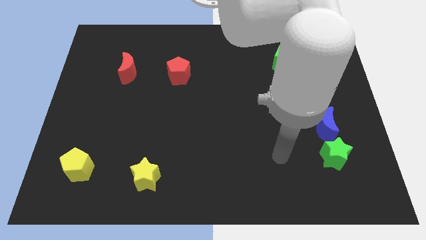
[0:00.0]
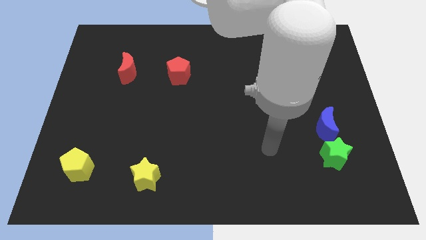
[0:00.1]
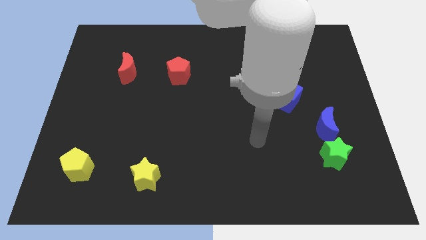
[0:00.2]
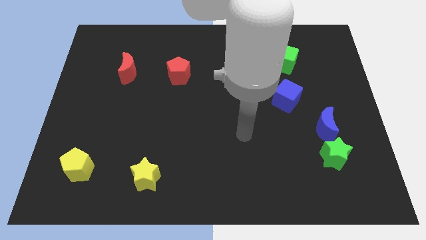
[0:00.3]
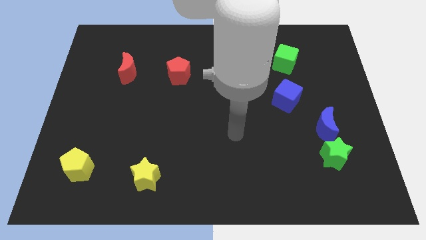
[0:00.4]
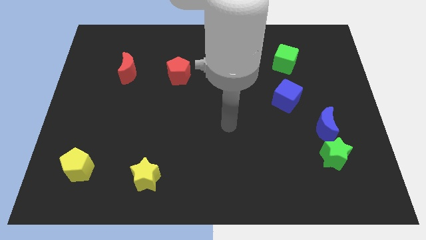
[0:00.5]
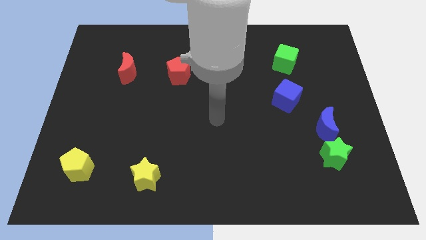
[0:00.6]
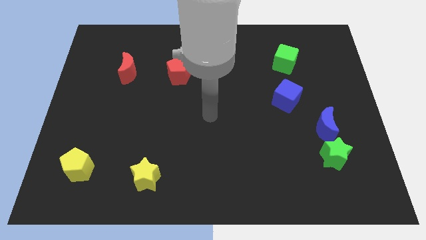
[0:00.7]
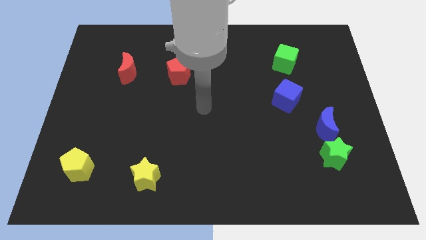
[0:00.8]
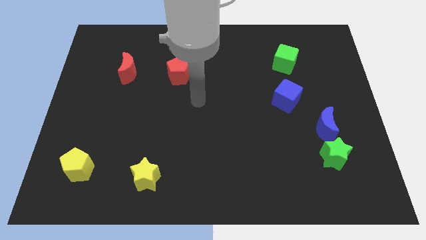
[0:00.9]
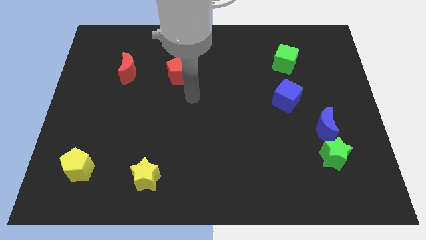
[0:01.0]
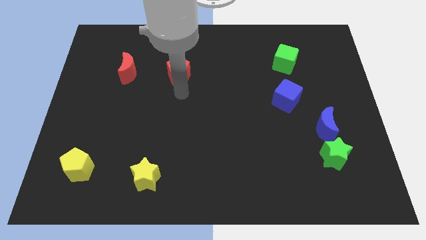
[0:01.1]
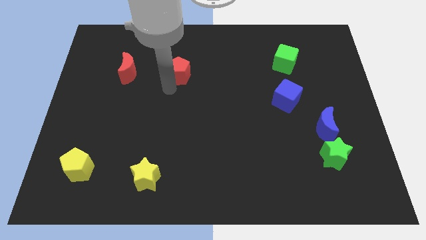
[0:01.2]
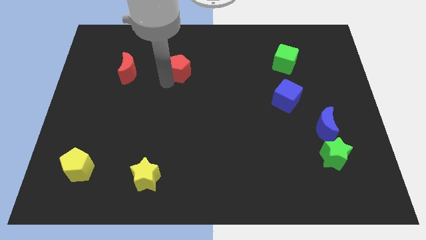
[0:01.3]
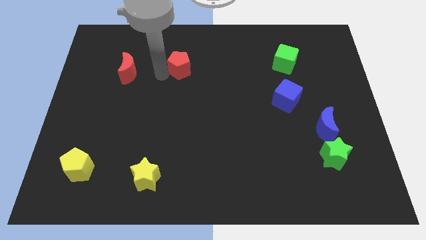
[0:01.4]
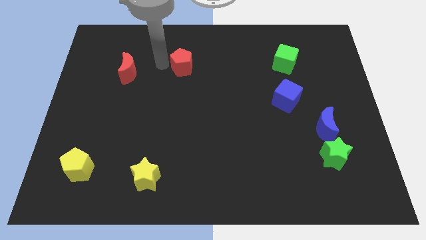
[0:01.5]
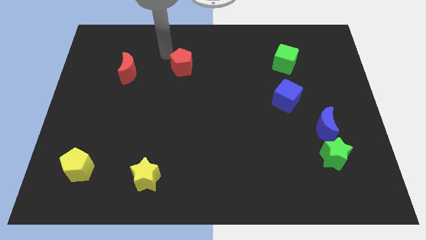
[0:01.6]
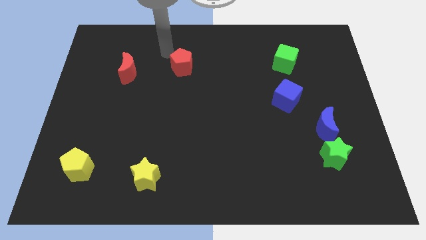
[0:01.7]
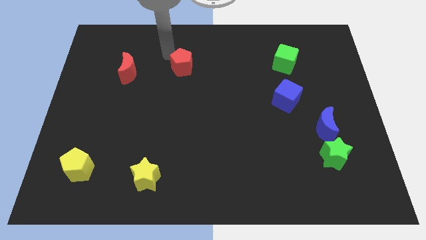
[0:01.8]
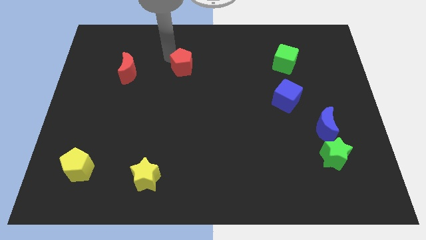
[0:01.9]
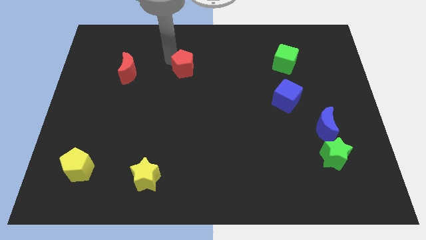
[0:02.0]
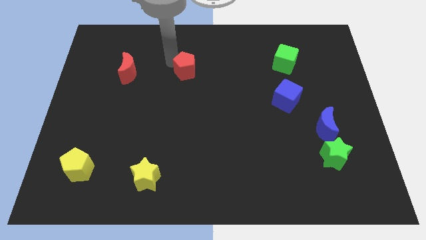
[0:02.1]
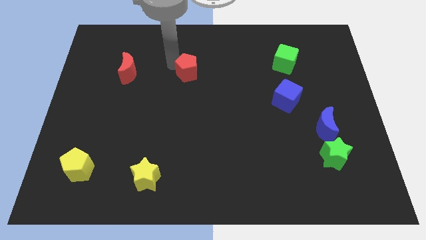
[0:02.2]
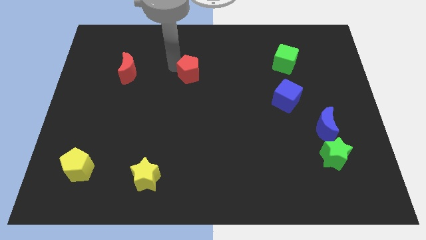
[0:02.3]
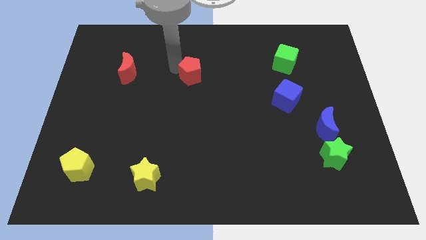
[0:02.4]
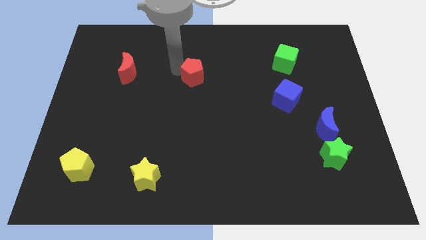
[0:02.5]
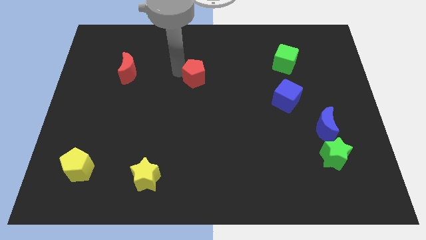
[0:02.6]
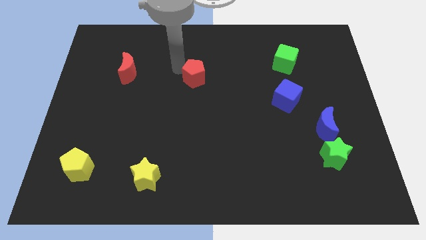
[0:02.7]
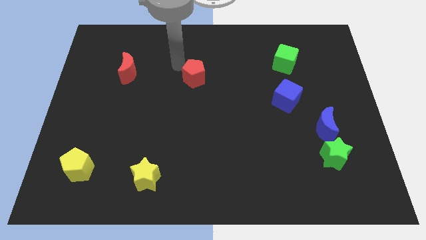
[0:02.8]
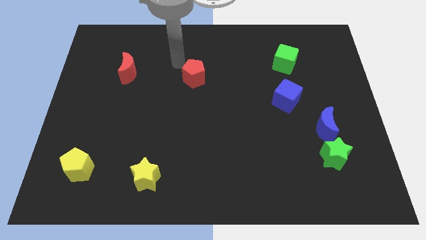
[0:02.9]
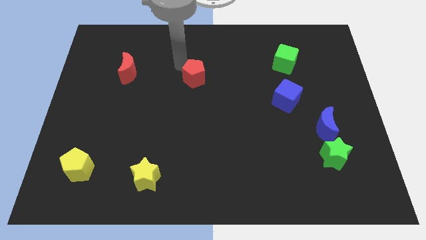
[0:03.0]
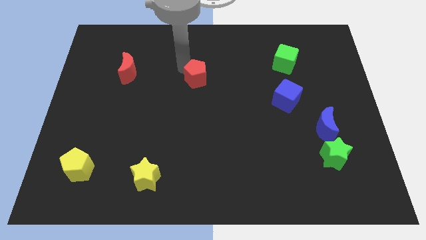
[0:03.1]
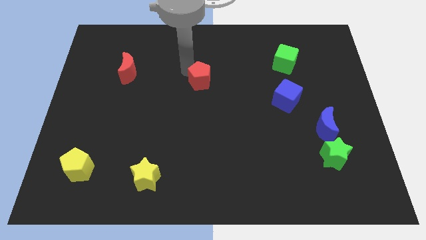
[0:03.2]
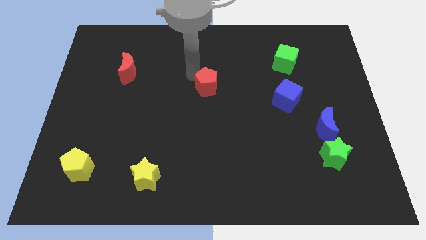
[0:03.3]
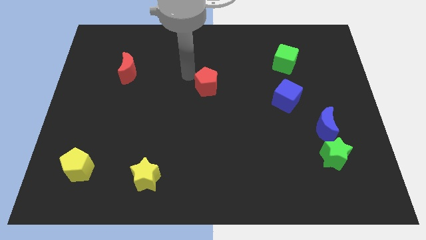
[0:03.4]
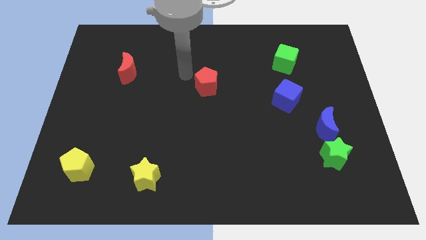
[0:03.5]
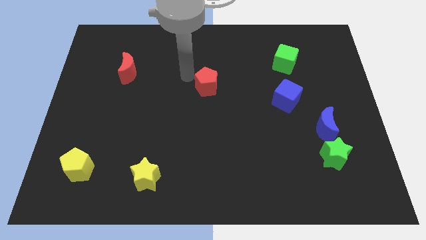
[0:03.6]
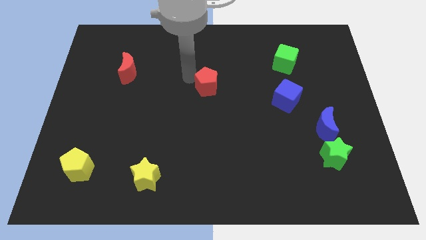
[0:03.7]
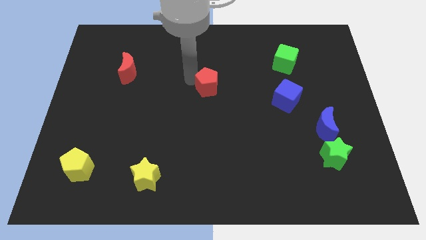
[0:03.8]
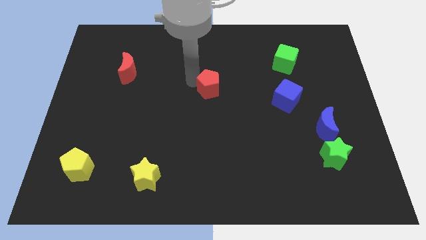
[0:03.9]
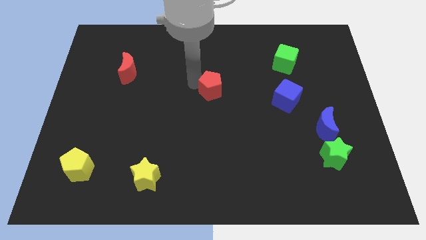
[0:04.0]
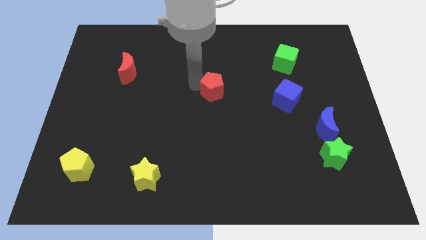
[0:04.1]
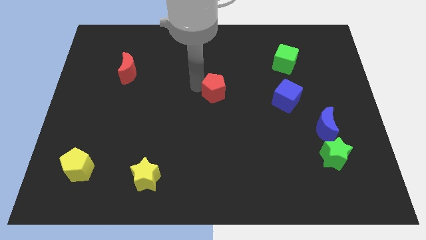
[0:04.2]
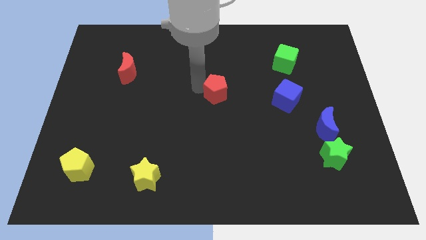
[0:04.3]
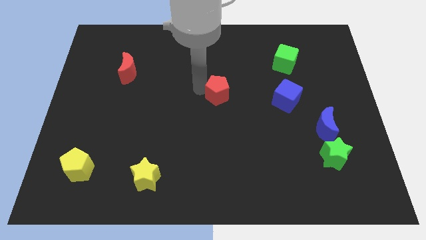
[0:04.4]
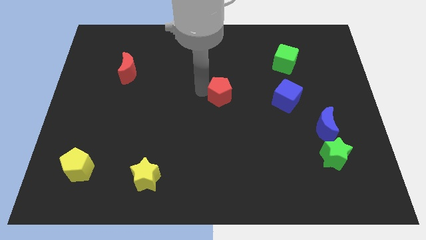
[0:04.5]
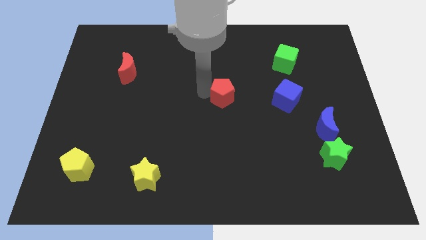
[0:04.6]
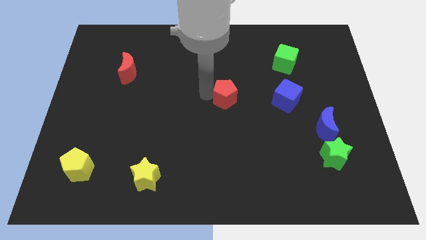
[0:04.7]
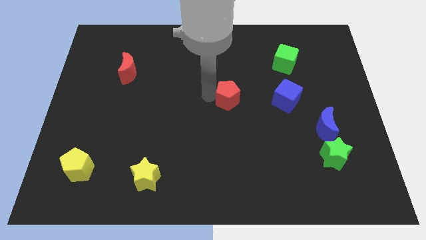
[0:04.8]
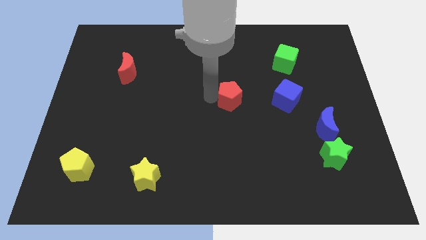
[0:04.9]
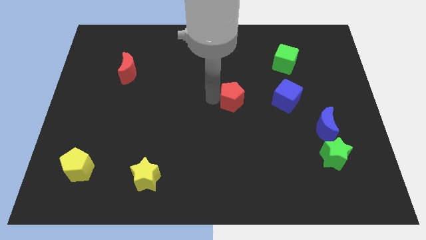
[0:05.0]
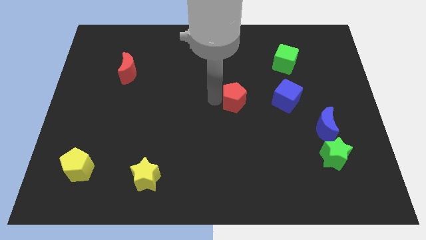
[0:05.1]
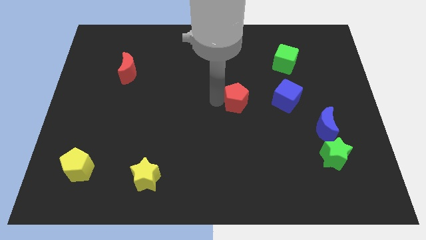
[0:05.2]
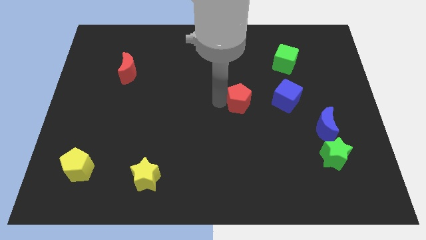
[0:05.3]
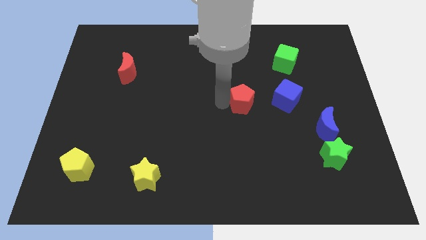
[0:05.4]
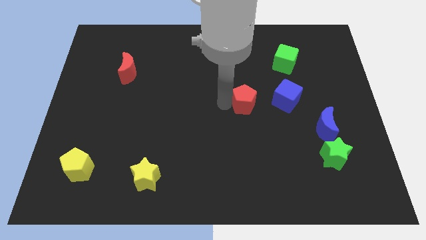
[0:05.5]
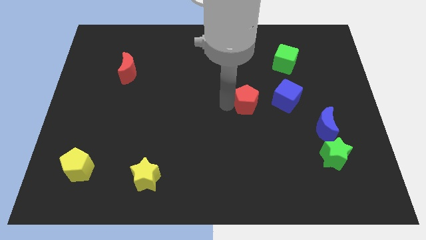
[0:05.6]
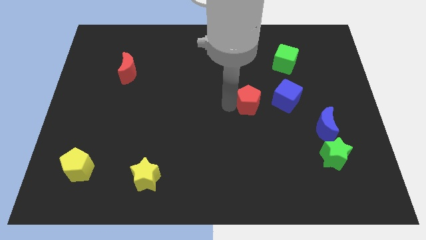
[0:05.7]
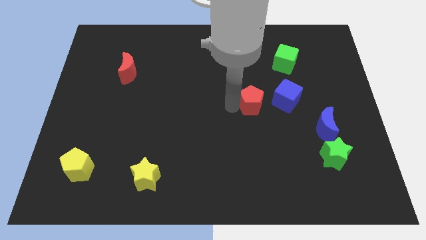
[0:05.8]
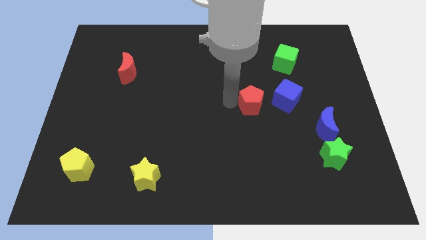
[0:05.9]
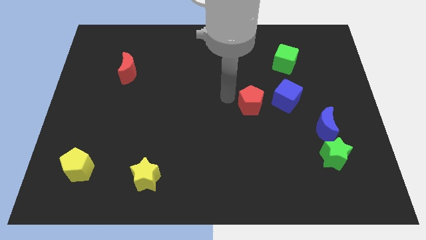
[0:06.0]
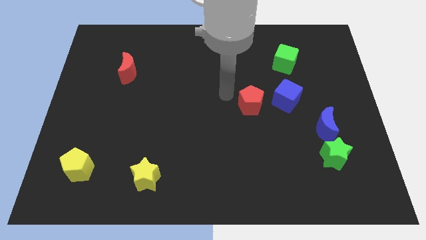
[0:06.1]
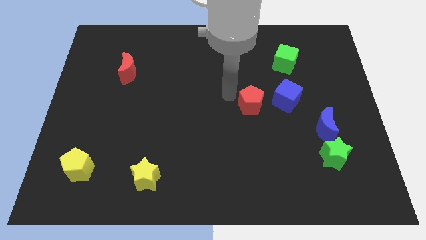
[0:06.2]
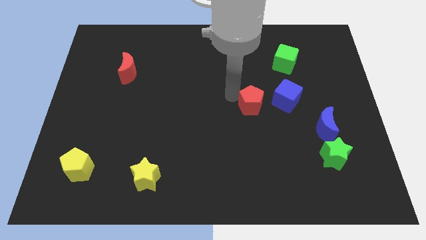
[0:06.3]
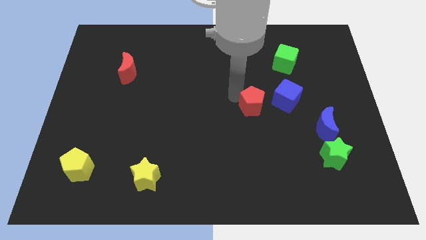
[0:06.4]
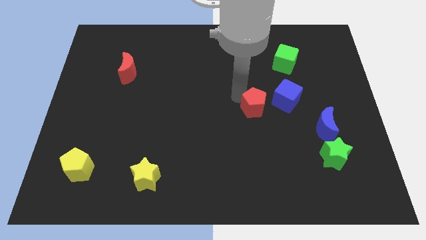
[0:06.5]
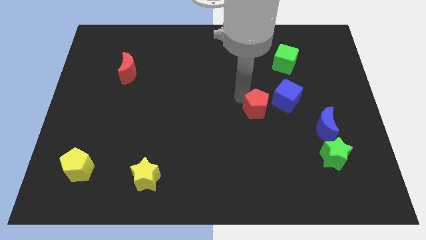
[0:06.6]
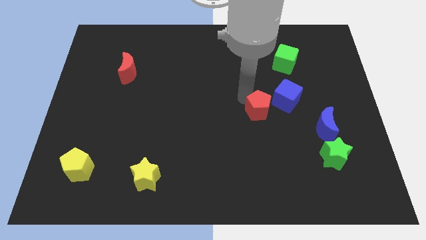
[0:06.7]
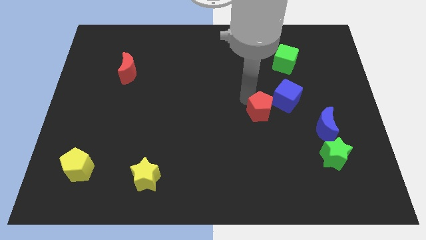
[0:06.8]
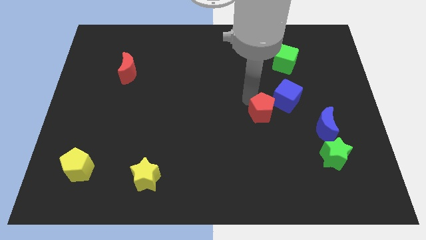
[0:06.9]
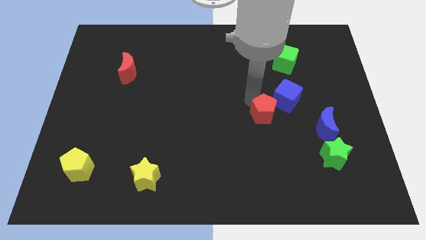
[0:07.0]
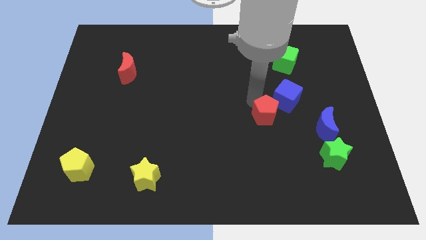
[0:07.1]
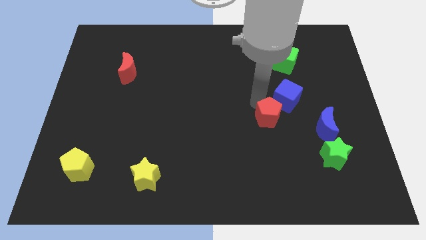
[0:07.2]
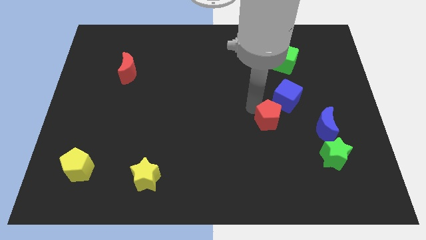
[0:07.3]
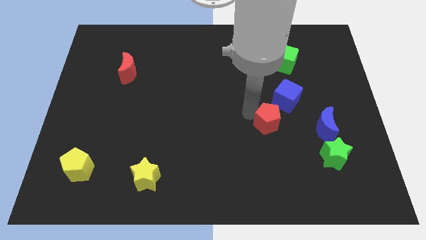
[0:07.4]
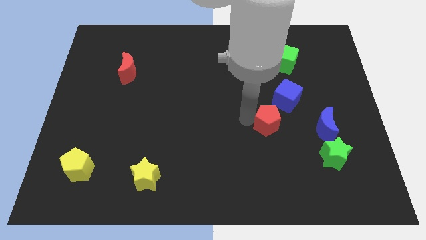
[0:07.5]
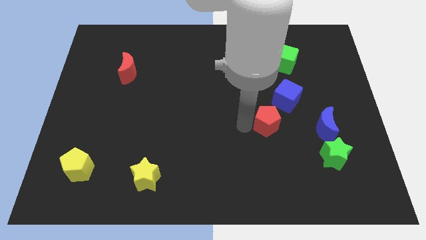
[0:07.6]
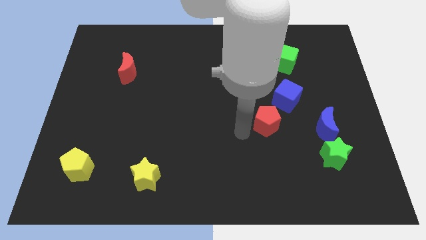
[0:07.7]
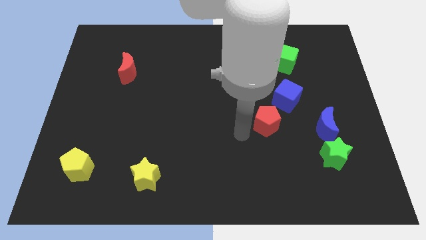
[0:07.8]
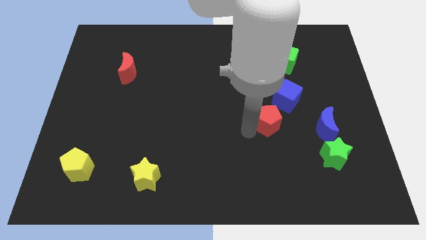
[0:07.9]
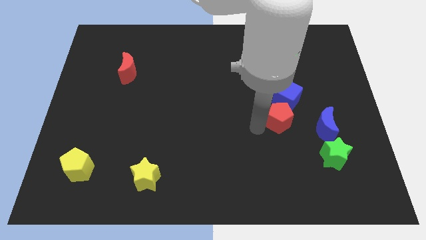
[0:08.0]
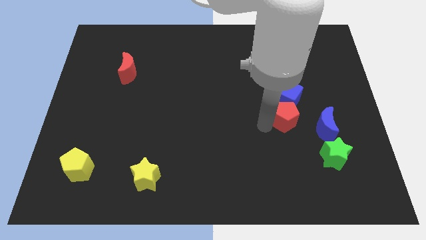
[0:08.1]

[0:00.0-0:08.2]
move the red pentagon to the top left of the blue moon
